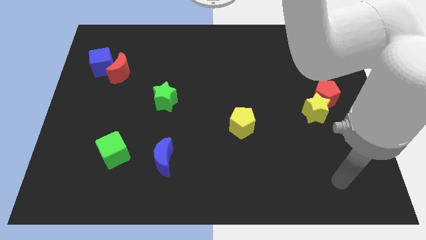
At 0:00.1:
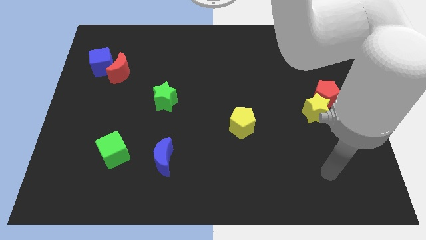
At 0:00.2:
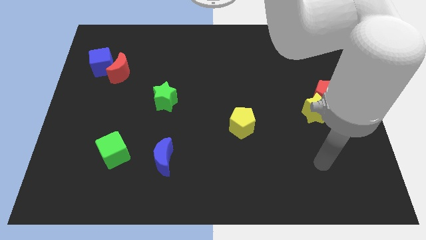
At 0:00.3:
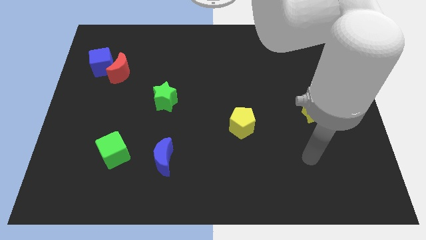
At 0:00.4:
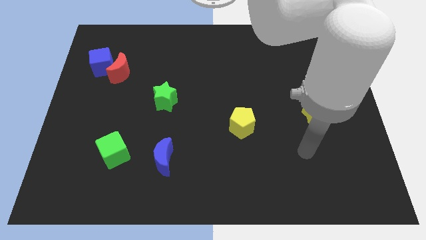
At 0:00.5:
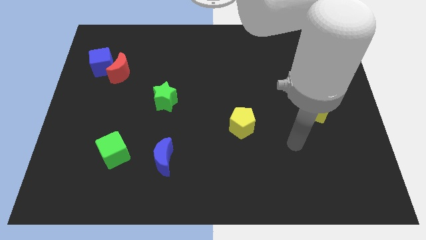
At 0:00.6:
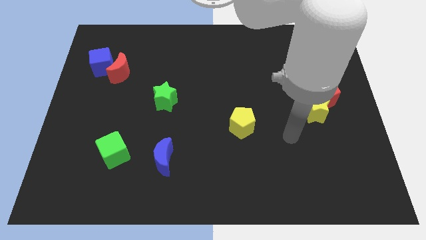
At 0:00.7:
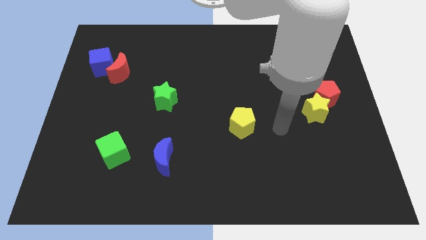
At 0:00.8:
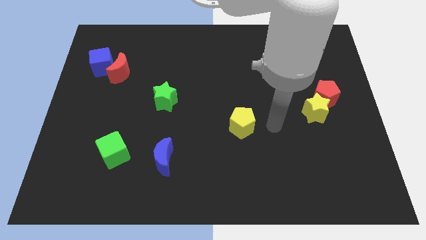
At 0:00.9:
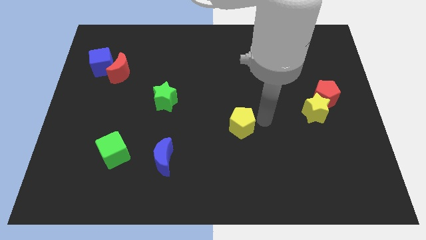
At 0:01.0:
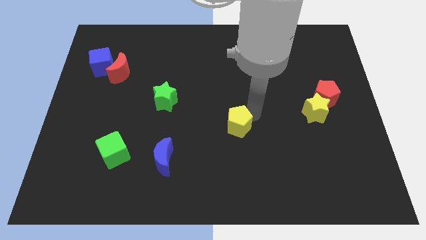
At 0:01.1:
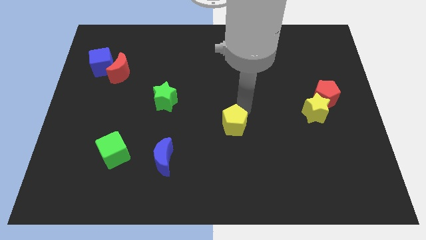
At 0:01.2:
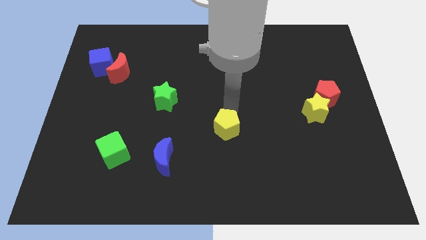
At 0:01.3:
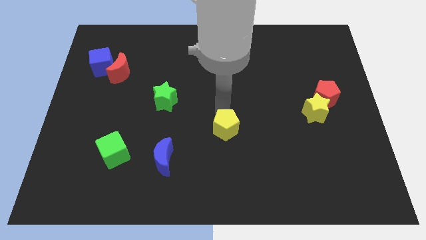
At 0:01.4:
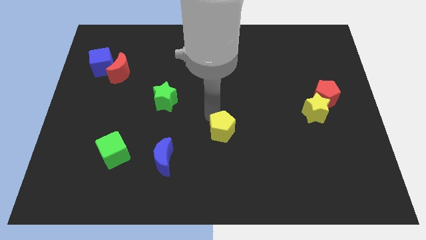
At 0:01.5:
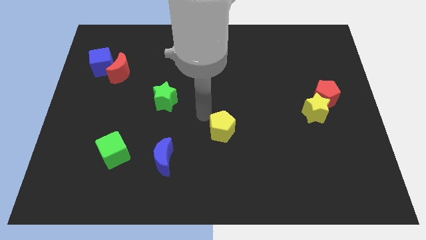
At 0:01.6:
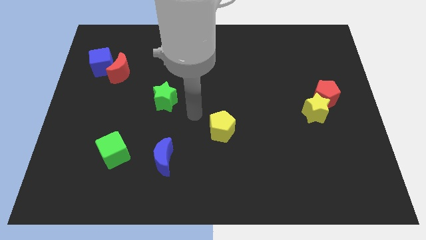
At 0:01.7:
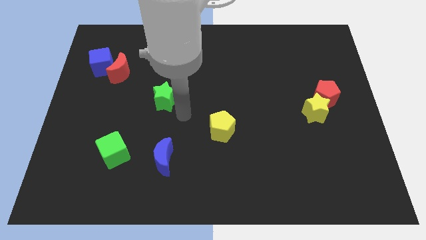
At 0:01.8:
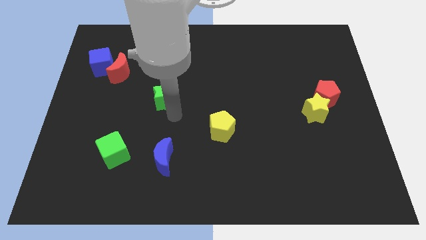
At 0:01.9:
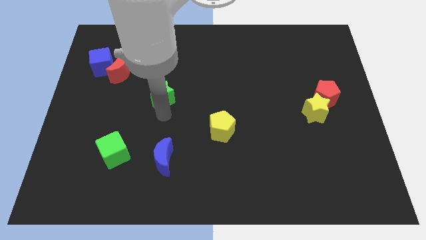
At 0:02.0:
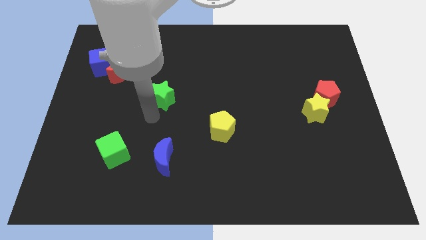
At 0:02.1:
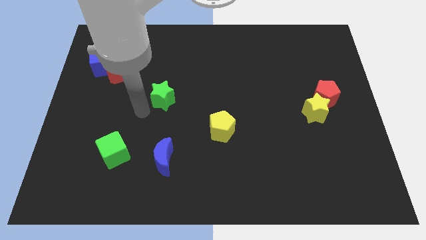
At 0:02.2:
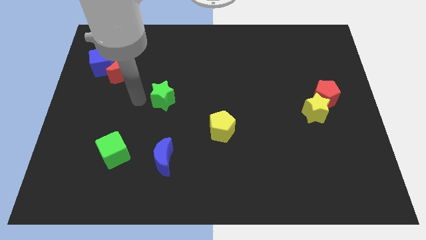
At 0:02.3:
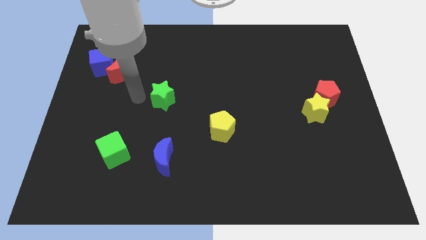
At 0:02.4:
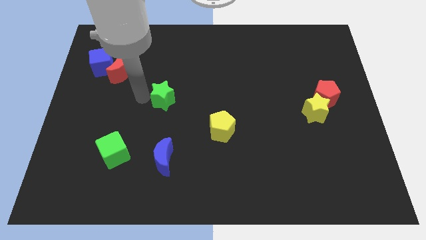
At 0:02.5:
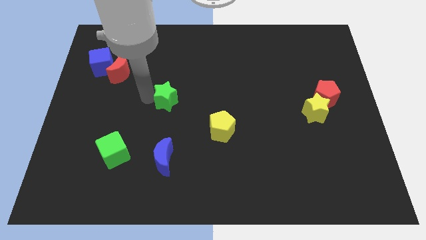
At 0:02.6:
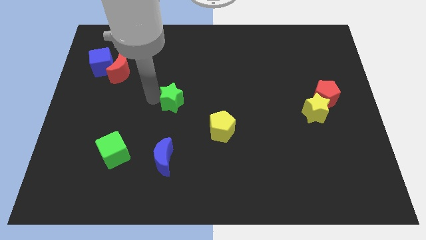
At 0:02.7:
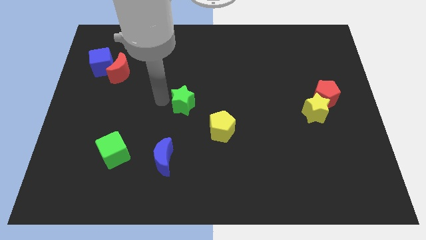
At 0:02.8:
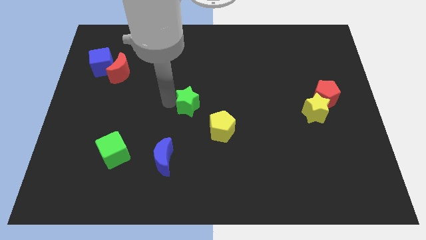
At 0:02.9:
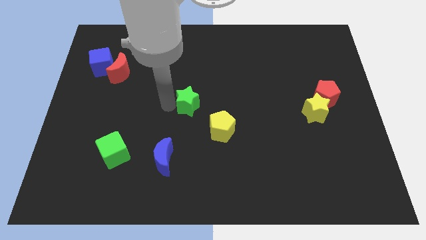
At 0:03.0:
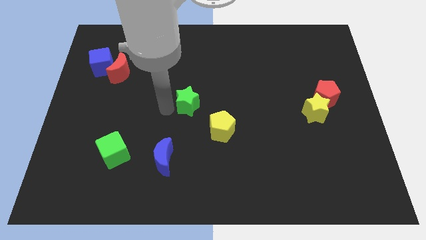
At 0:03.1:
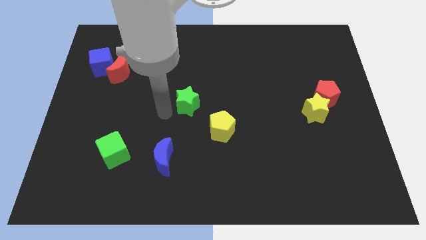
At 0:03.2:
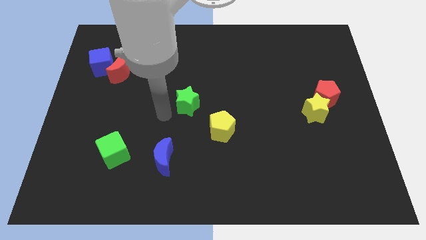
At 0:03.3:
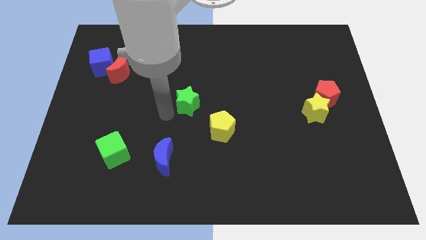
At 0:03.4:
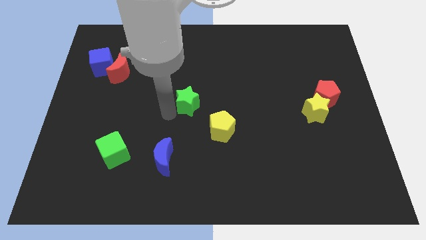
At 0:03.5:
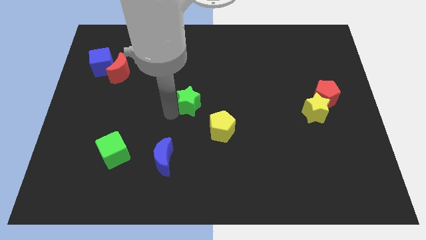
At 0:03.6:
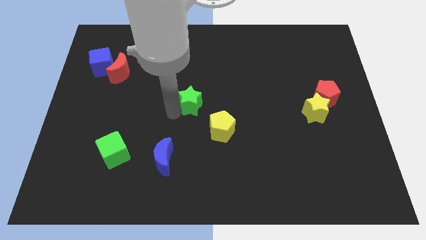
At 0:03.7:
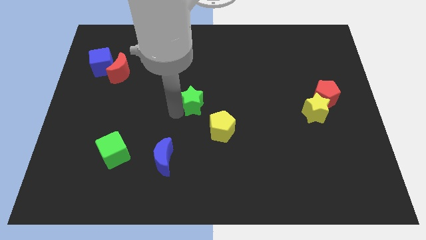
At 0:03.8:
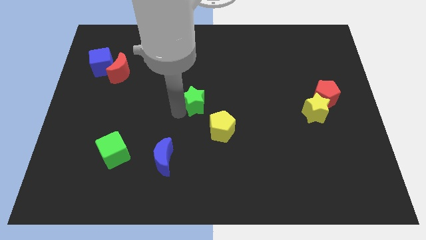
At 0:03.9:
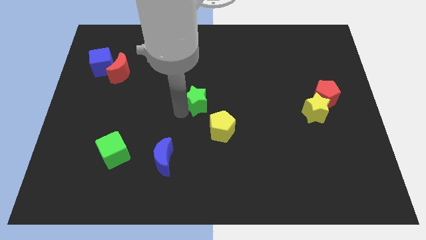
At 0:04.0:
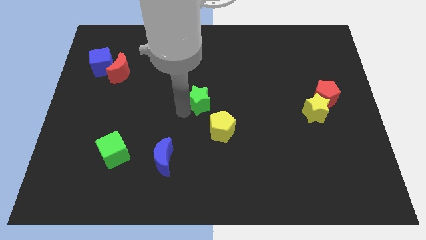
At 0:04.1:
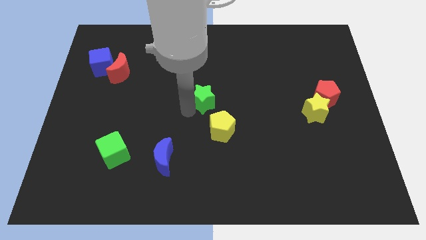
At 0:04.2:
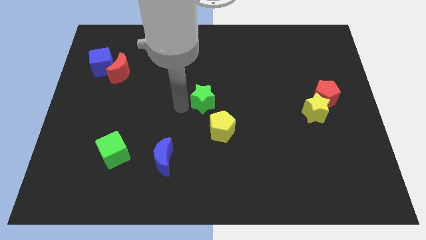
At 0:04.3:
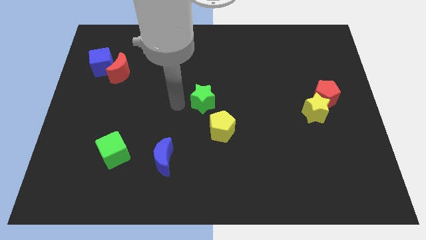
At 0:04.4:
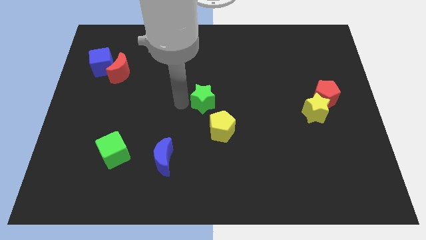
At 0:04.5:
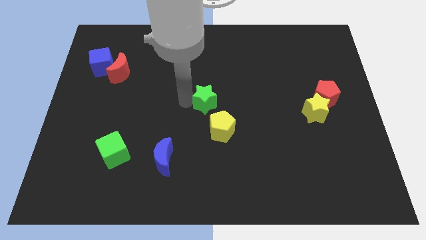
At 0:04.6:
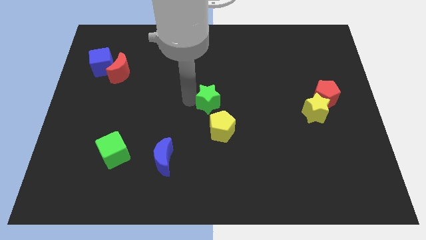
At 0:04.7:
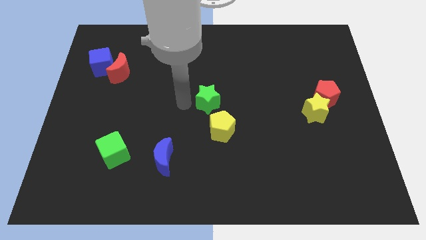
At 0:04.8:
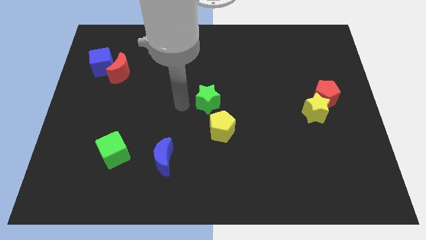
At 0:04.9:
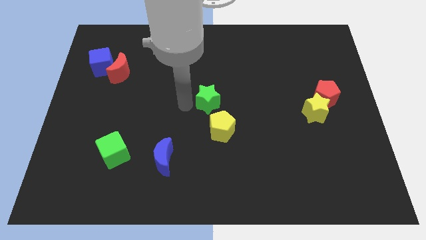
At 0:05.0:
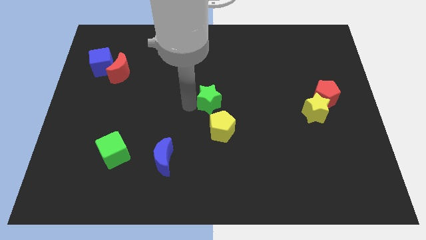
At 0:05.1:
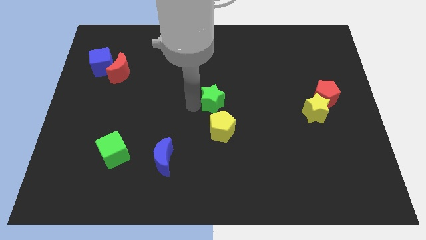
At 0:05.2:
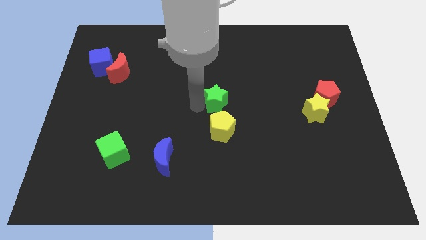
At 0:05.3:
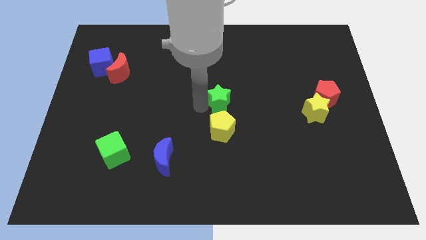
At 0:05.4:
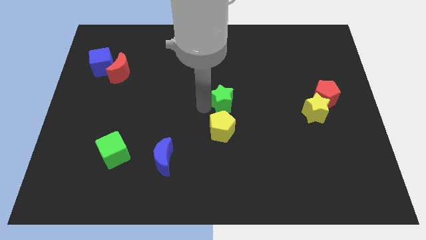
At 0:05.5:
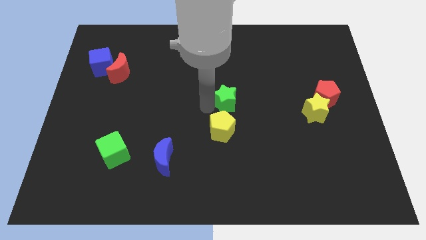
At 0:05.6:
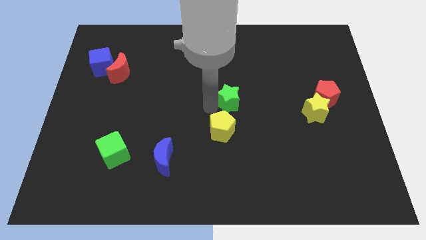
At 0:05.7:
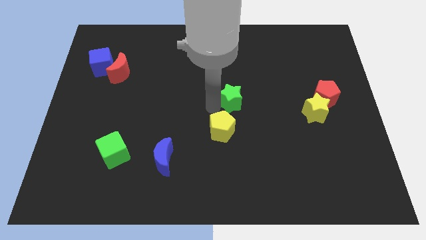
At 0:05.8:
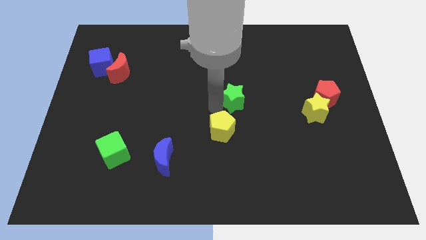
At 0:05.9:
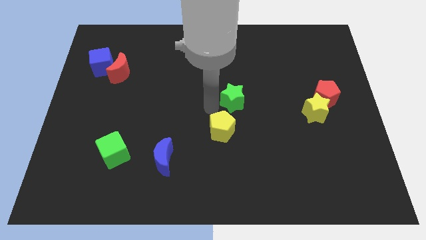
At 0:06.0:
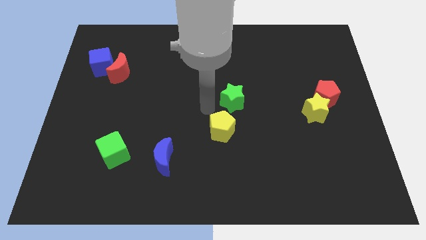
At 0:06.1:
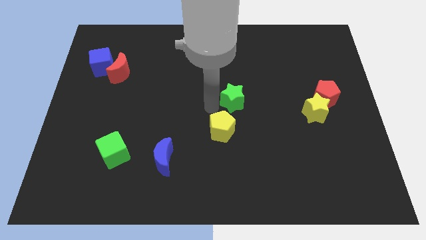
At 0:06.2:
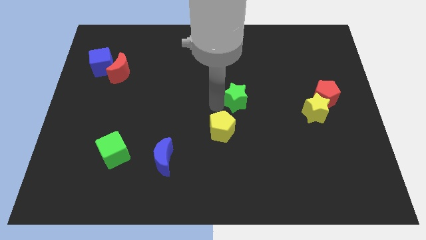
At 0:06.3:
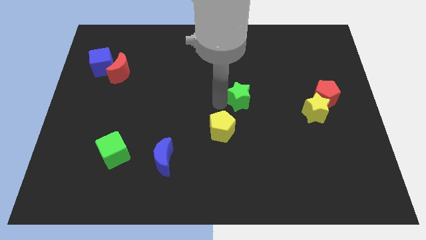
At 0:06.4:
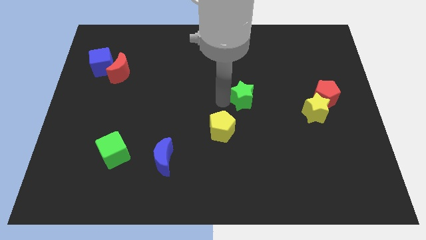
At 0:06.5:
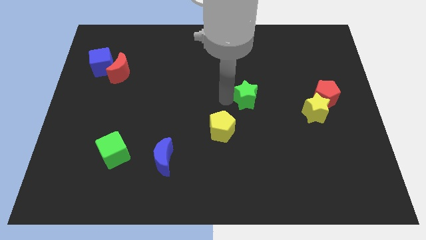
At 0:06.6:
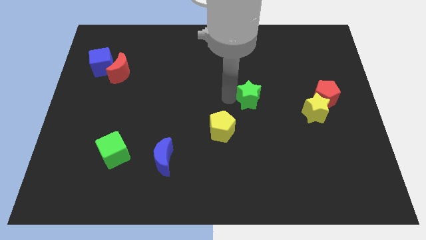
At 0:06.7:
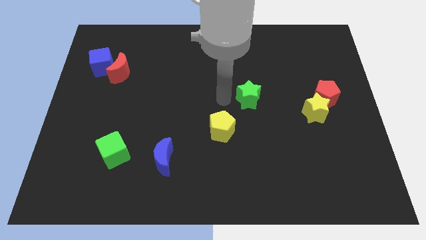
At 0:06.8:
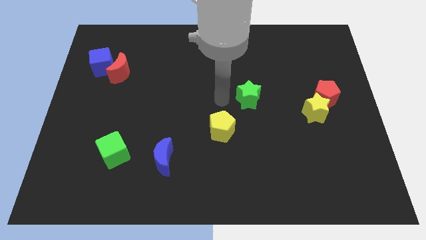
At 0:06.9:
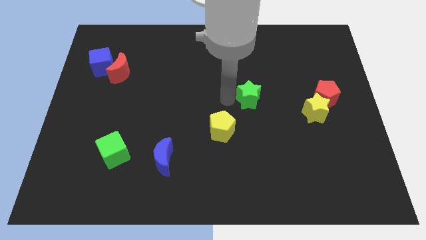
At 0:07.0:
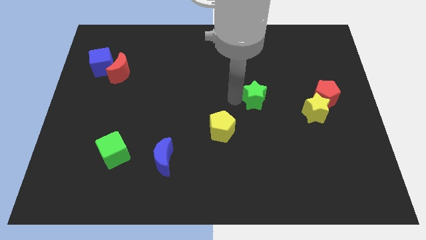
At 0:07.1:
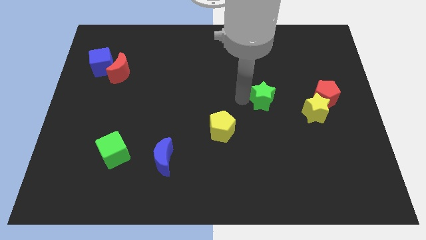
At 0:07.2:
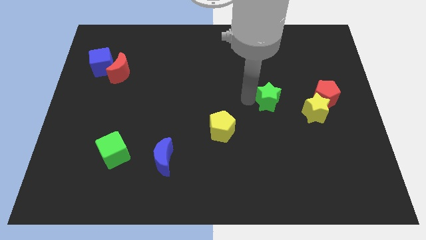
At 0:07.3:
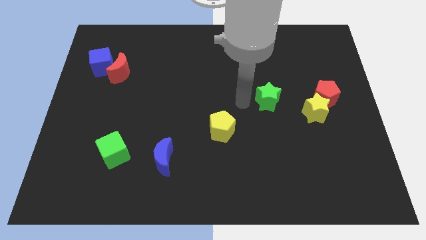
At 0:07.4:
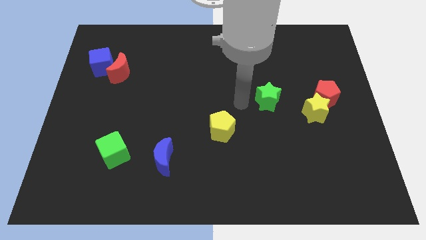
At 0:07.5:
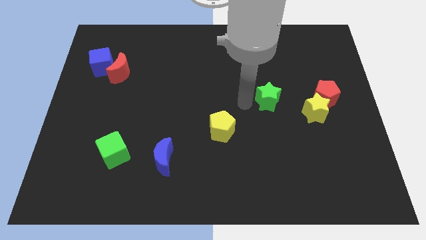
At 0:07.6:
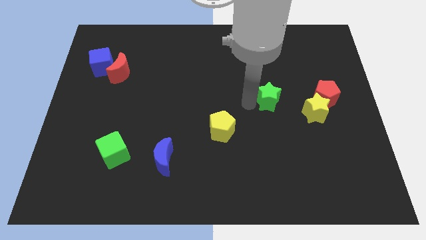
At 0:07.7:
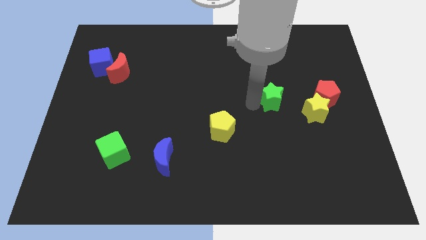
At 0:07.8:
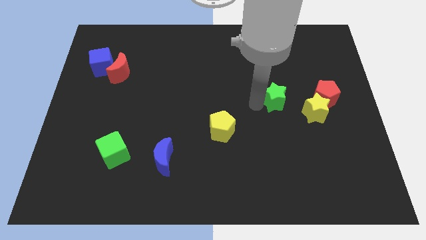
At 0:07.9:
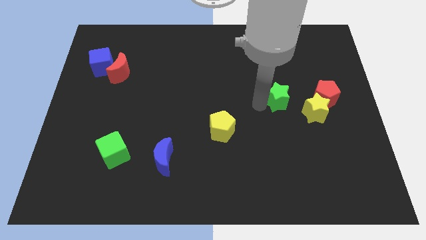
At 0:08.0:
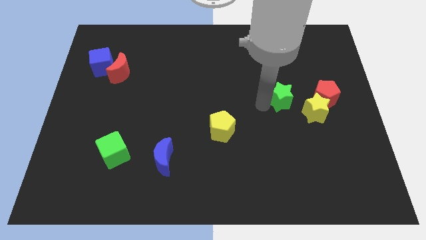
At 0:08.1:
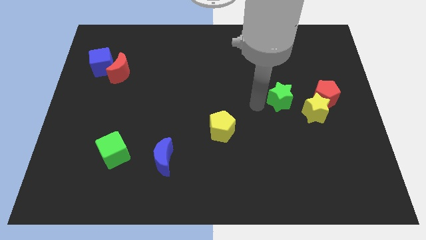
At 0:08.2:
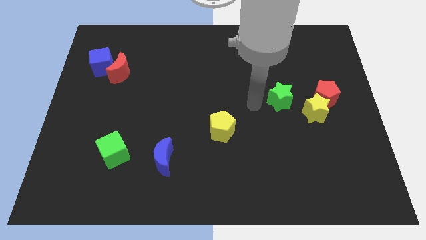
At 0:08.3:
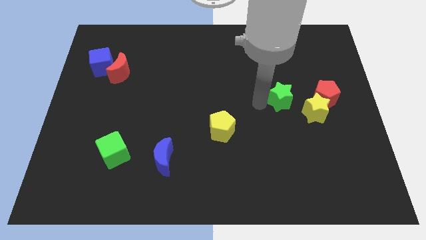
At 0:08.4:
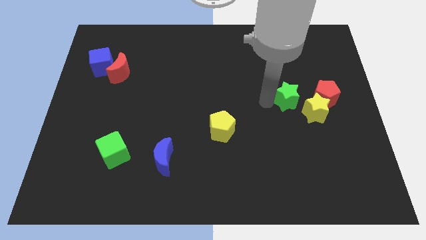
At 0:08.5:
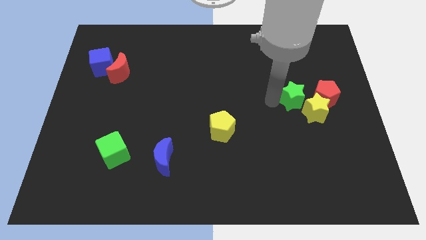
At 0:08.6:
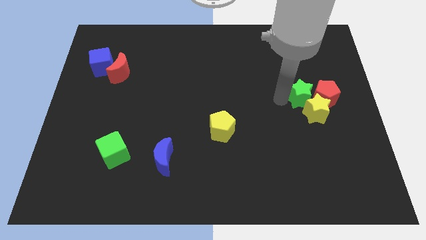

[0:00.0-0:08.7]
put the green star next to the red pentagon
